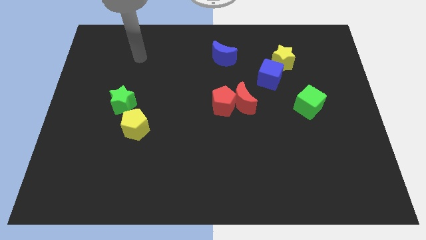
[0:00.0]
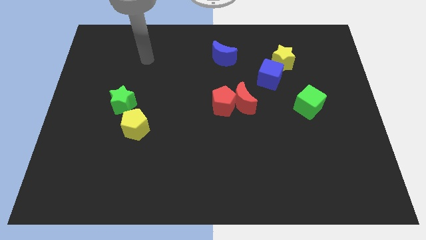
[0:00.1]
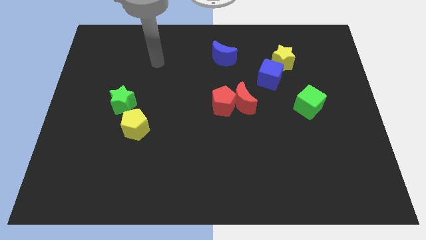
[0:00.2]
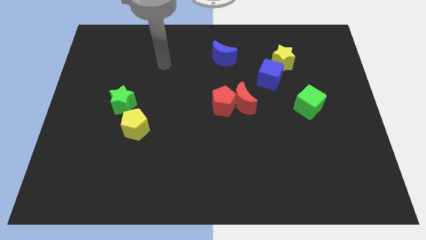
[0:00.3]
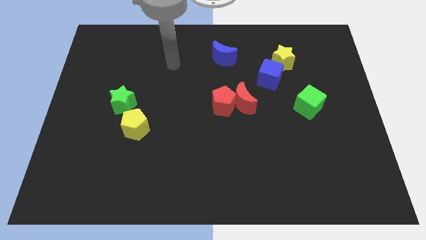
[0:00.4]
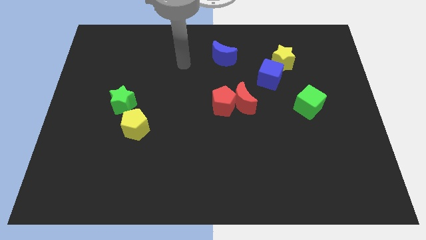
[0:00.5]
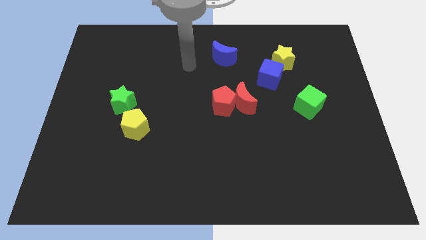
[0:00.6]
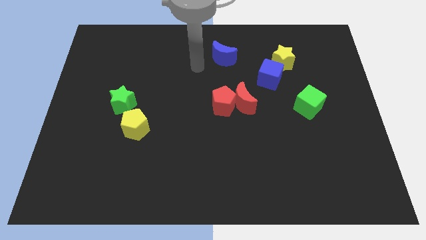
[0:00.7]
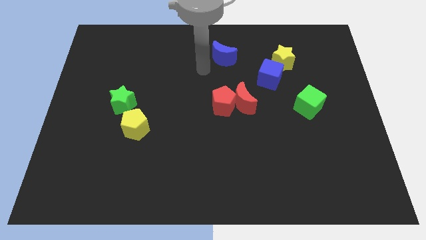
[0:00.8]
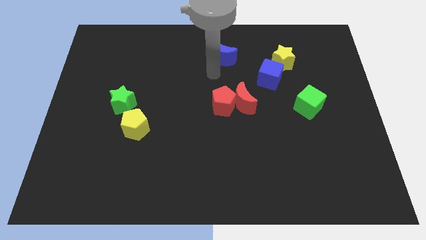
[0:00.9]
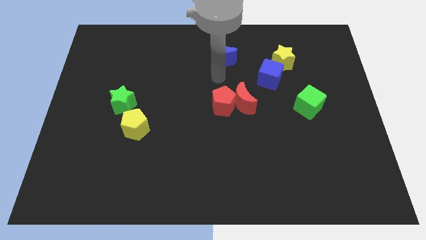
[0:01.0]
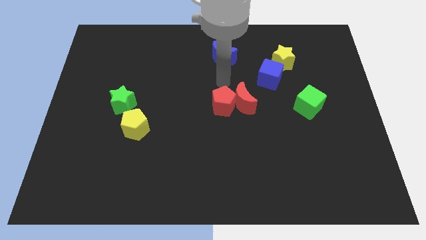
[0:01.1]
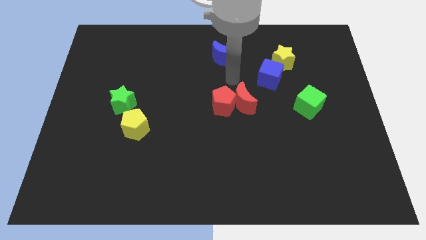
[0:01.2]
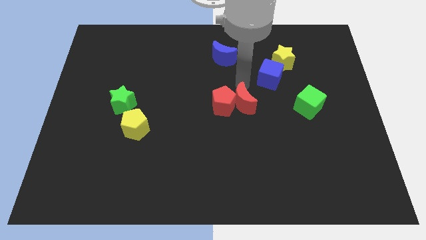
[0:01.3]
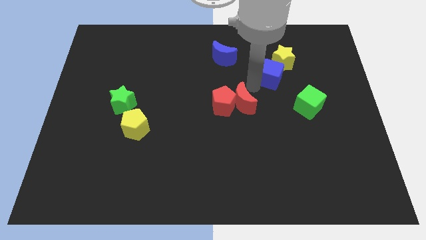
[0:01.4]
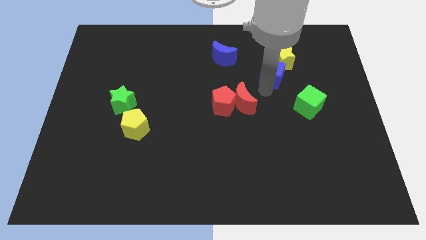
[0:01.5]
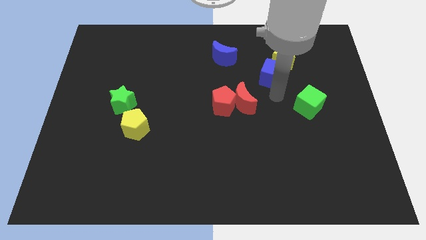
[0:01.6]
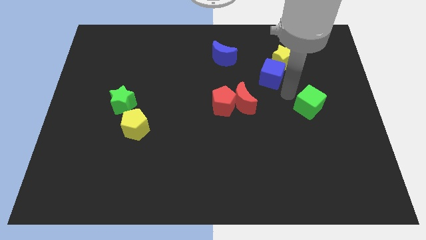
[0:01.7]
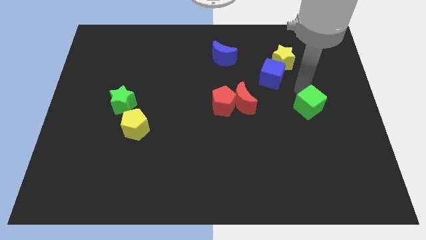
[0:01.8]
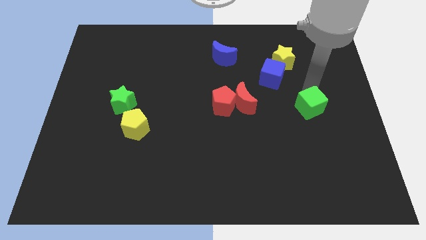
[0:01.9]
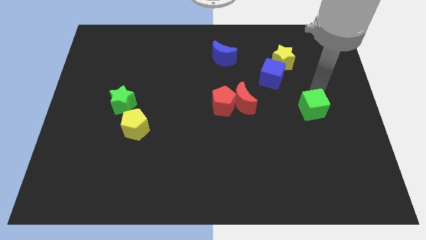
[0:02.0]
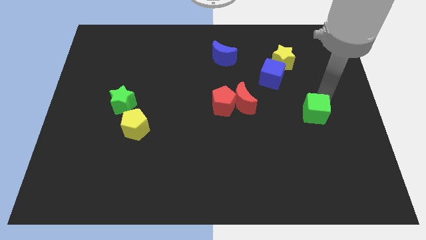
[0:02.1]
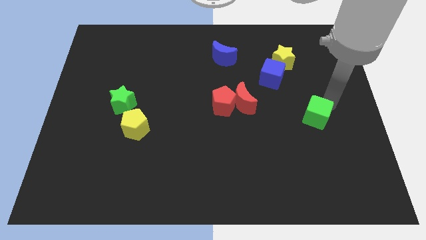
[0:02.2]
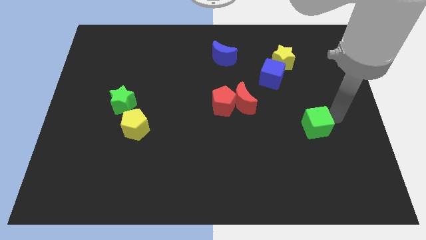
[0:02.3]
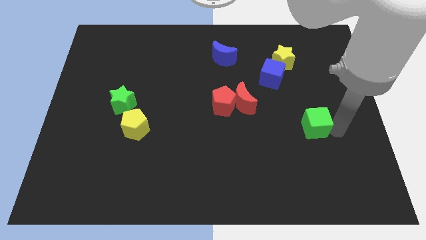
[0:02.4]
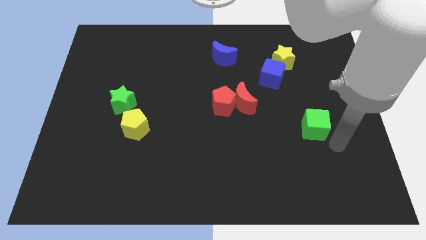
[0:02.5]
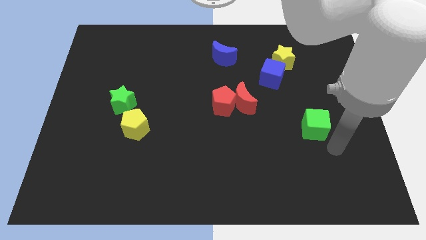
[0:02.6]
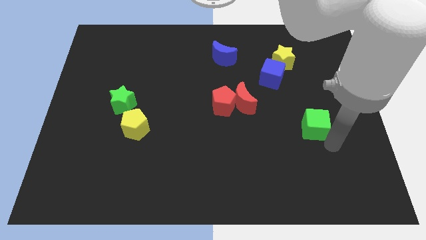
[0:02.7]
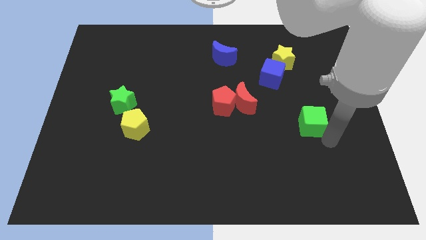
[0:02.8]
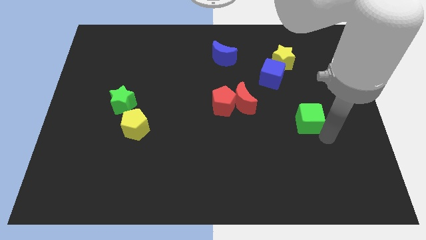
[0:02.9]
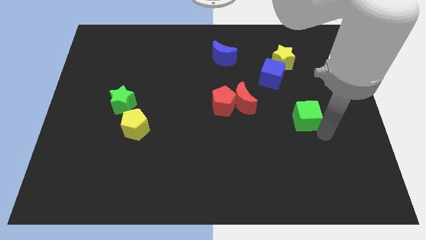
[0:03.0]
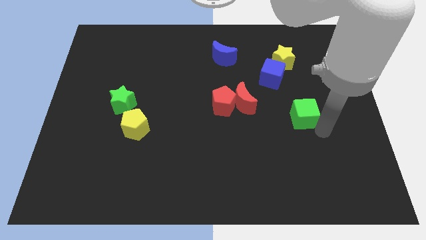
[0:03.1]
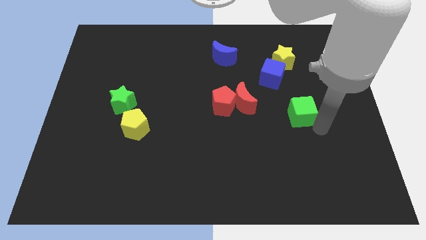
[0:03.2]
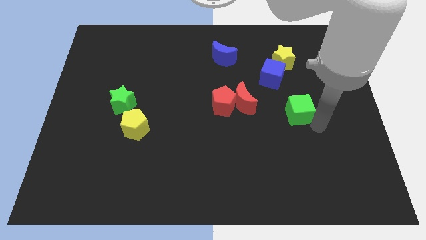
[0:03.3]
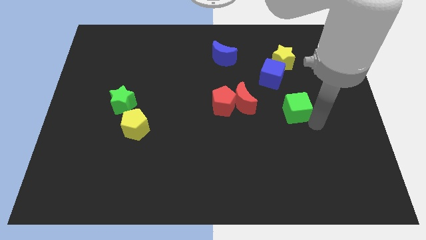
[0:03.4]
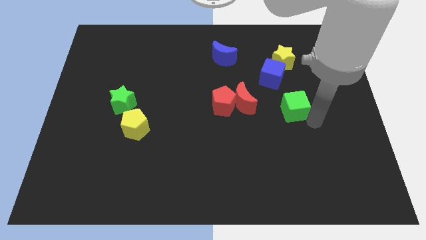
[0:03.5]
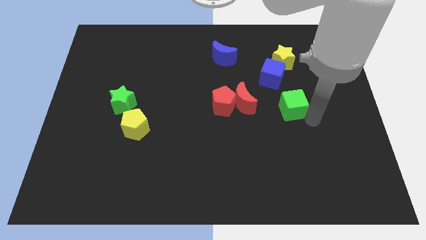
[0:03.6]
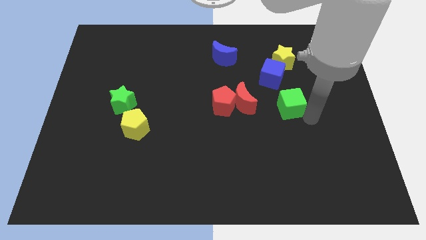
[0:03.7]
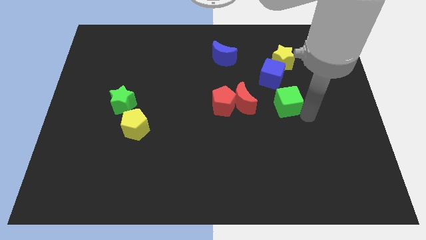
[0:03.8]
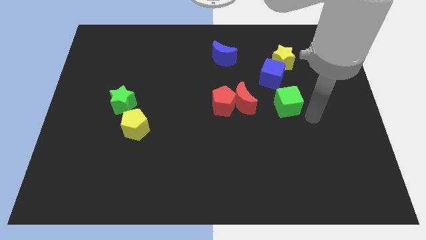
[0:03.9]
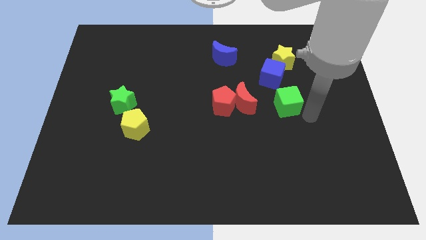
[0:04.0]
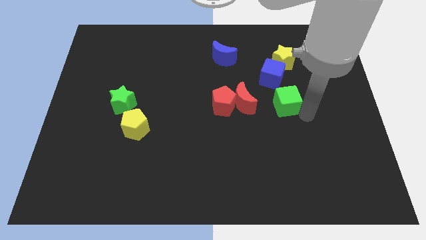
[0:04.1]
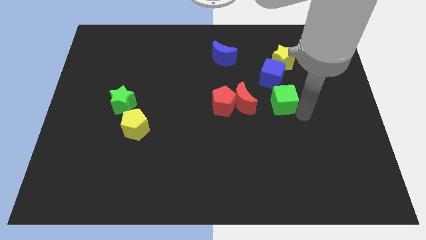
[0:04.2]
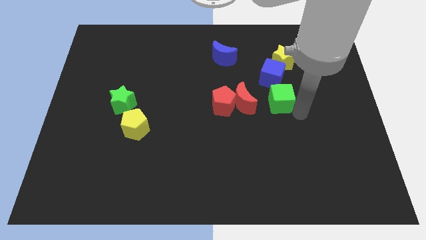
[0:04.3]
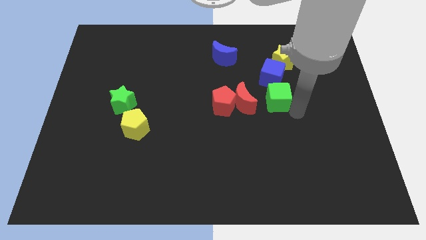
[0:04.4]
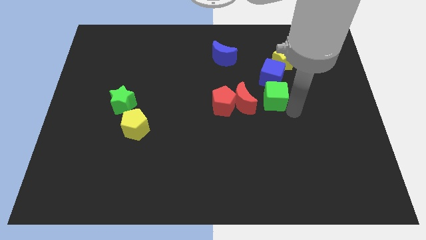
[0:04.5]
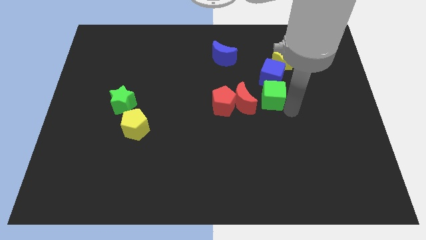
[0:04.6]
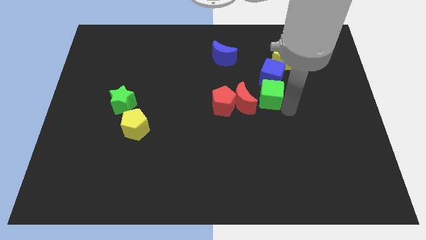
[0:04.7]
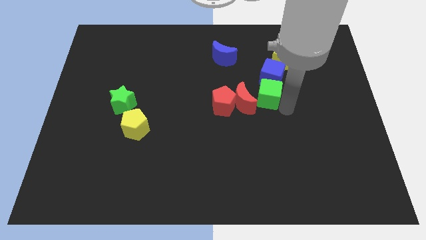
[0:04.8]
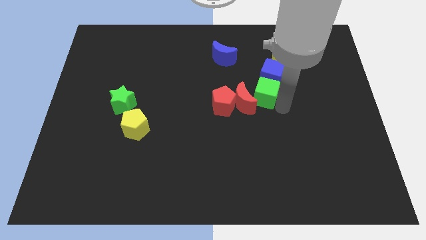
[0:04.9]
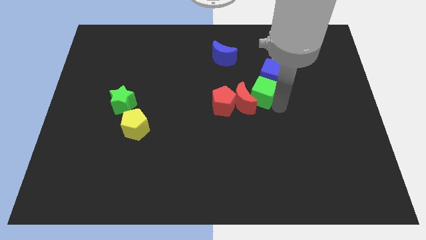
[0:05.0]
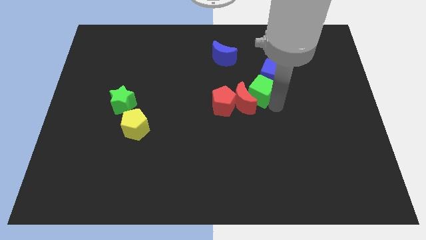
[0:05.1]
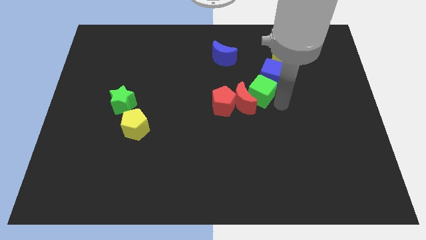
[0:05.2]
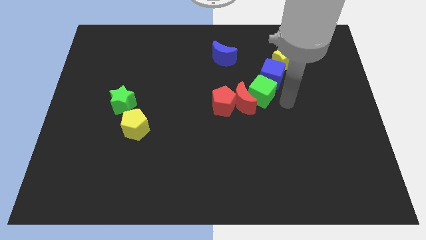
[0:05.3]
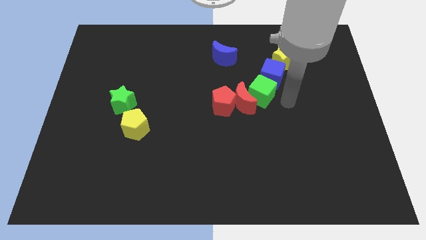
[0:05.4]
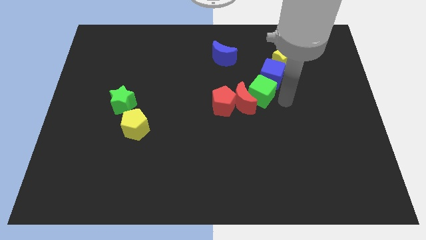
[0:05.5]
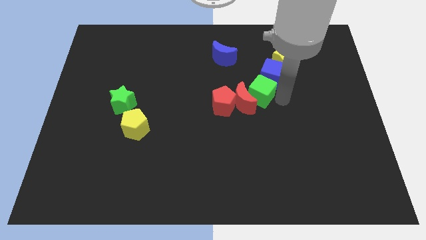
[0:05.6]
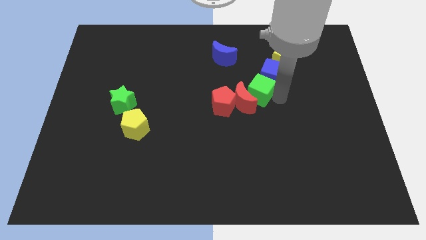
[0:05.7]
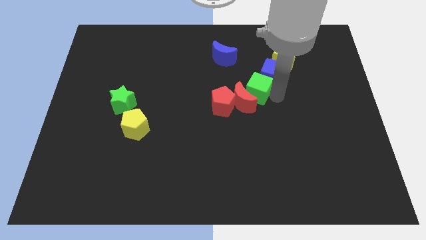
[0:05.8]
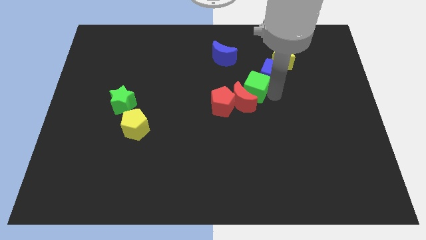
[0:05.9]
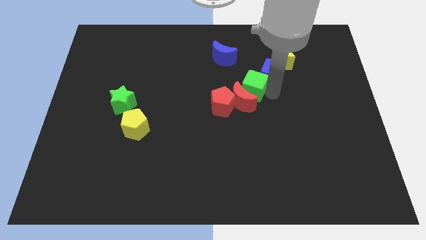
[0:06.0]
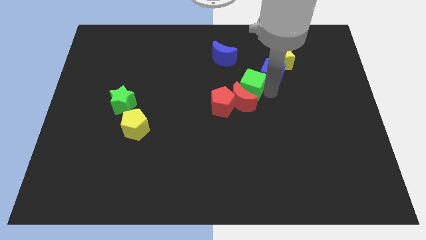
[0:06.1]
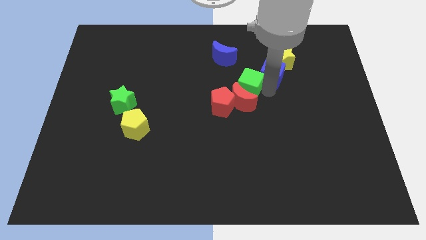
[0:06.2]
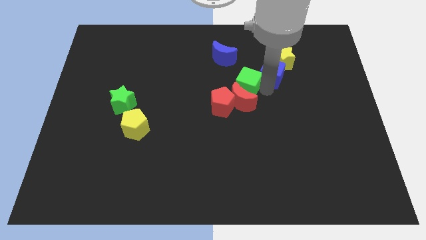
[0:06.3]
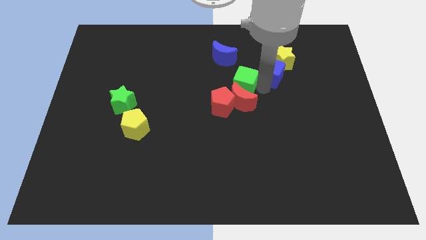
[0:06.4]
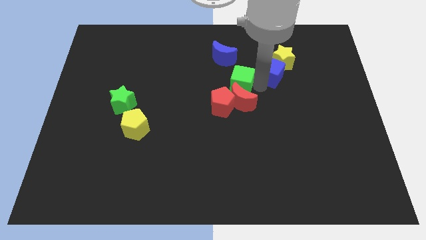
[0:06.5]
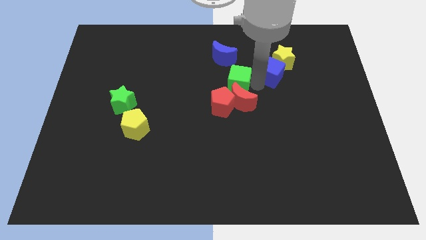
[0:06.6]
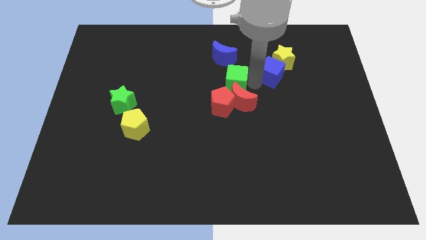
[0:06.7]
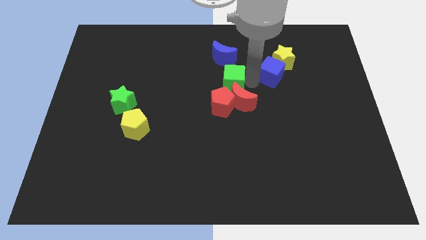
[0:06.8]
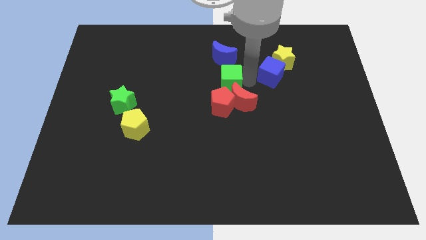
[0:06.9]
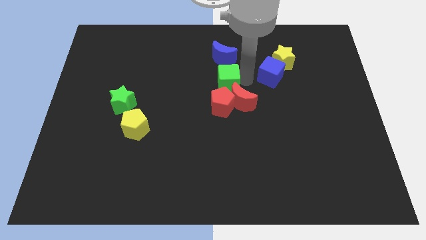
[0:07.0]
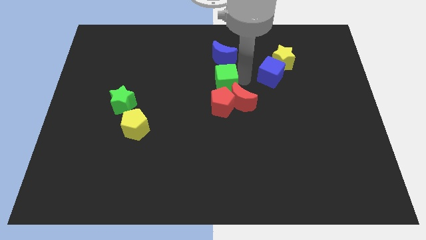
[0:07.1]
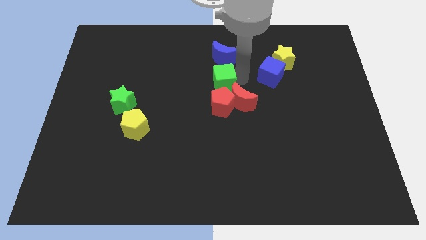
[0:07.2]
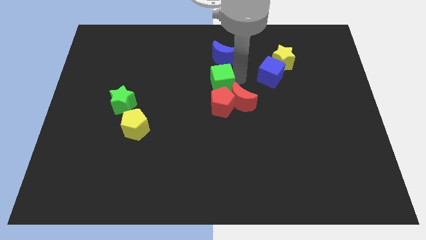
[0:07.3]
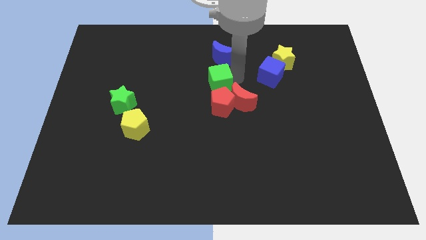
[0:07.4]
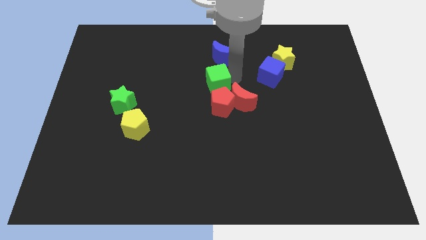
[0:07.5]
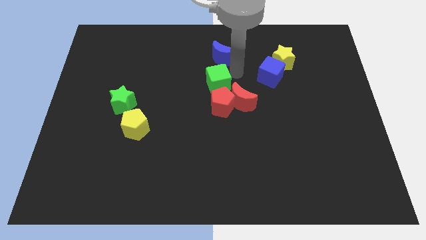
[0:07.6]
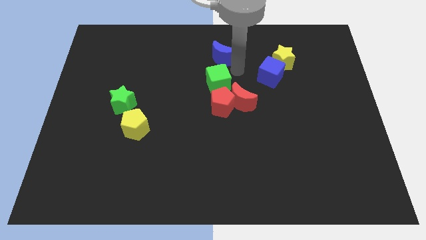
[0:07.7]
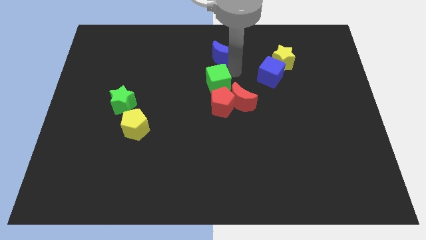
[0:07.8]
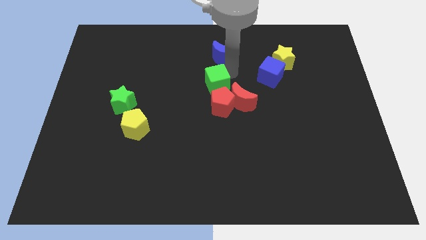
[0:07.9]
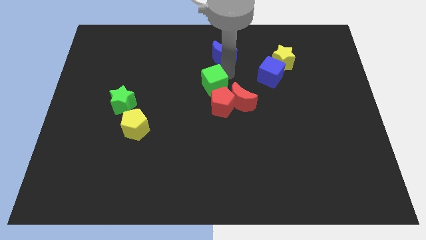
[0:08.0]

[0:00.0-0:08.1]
move the green cube to the left
